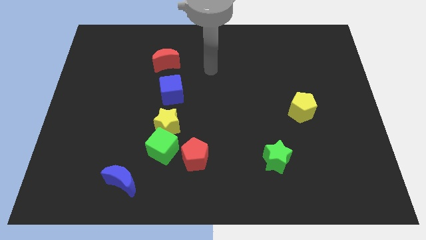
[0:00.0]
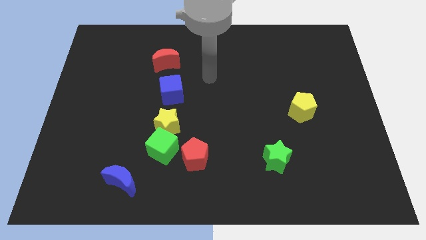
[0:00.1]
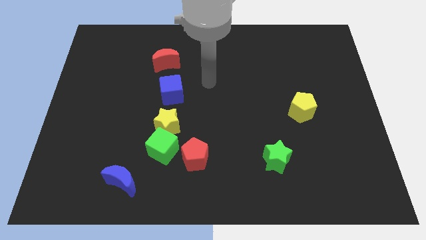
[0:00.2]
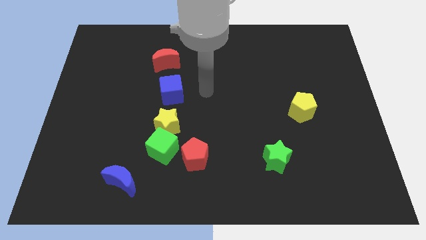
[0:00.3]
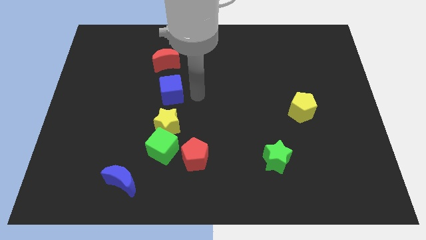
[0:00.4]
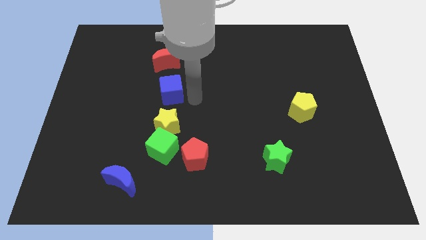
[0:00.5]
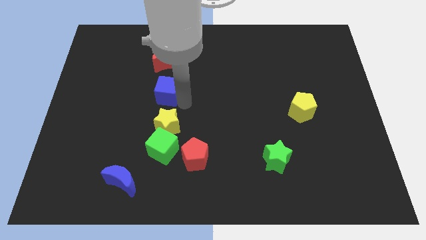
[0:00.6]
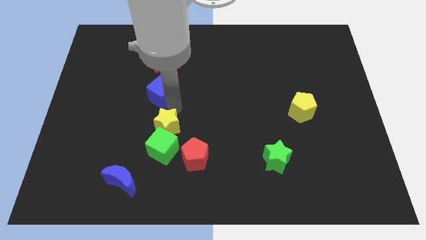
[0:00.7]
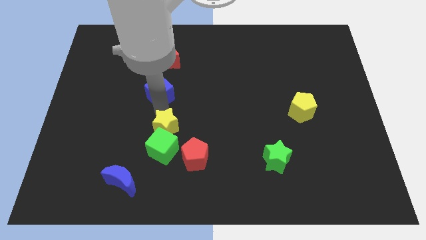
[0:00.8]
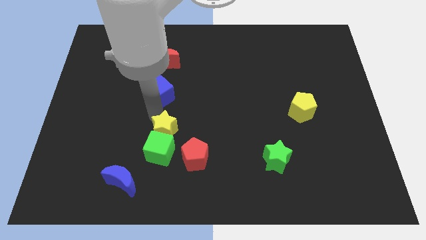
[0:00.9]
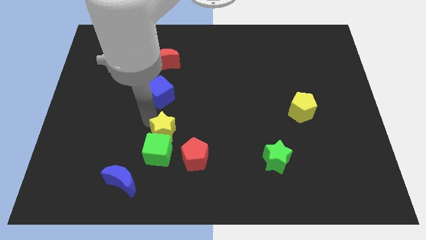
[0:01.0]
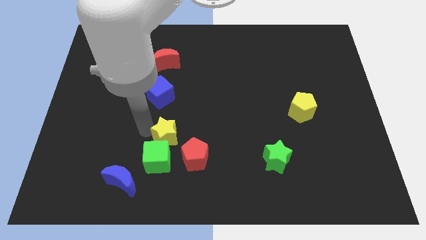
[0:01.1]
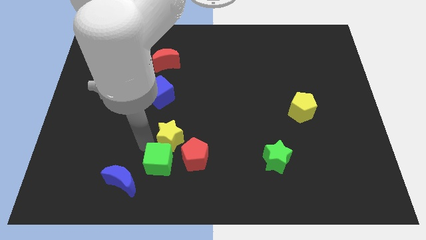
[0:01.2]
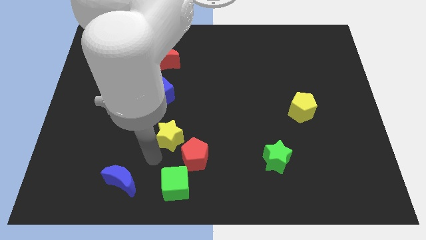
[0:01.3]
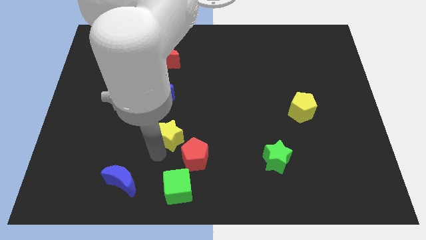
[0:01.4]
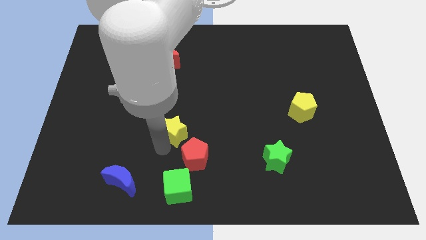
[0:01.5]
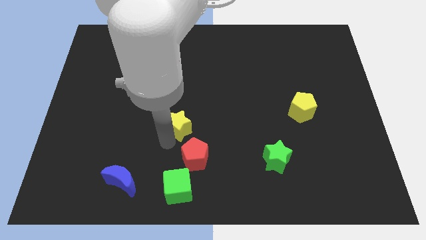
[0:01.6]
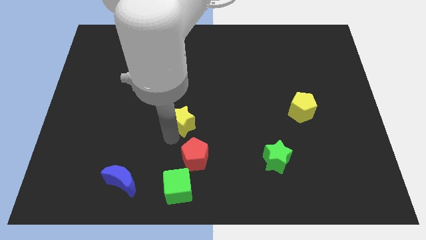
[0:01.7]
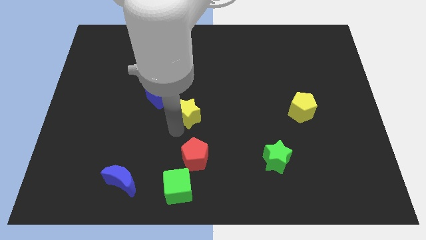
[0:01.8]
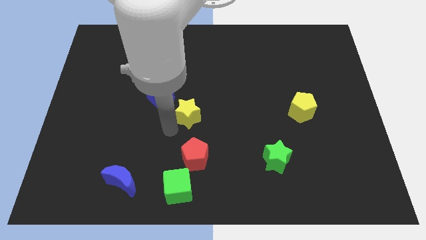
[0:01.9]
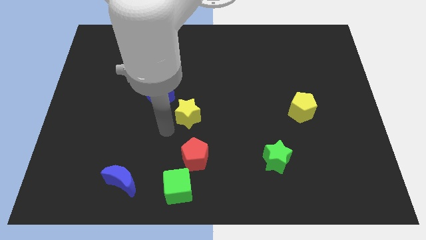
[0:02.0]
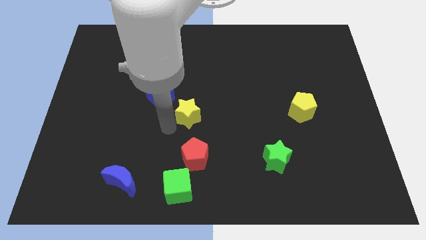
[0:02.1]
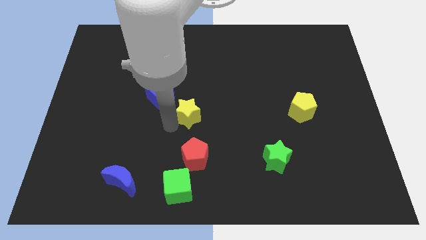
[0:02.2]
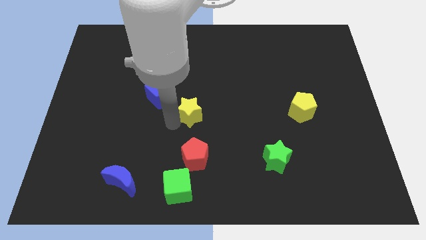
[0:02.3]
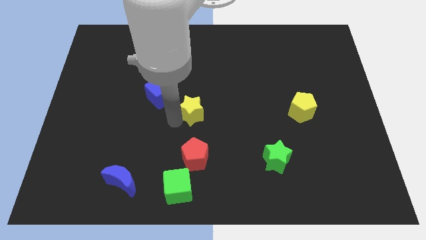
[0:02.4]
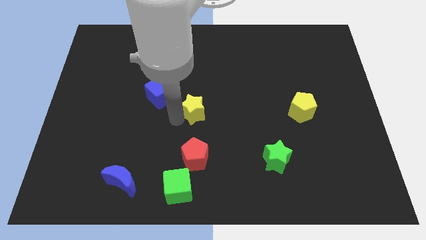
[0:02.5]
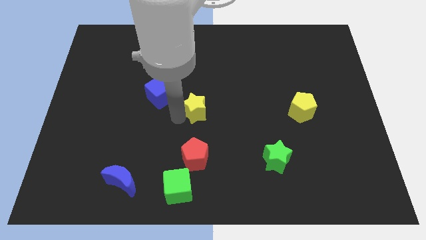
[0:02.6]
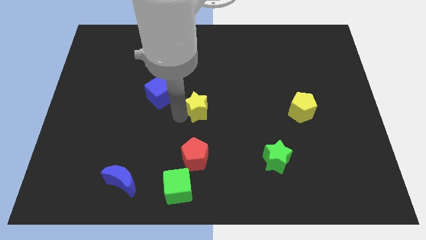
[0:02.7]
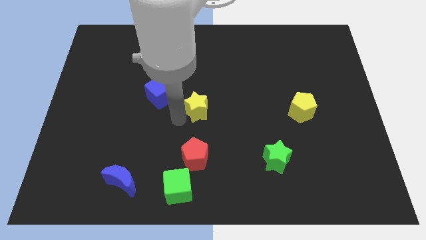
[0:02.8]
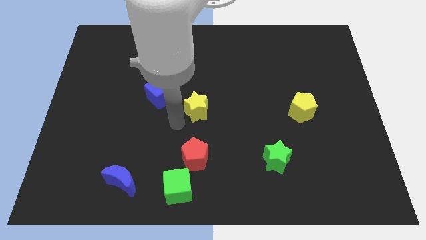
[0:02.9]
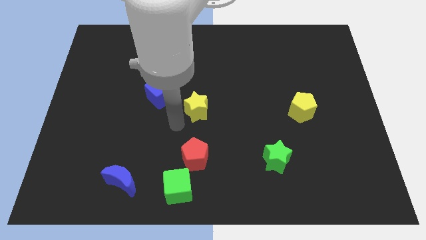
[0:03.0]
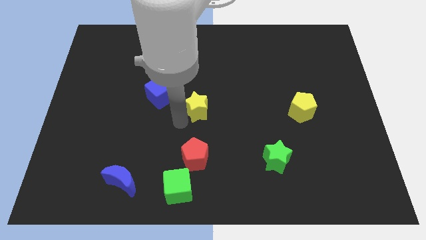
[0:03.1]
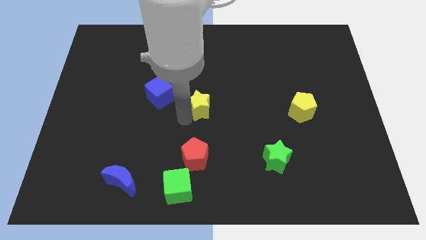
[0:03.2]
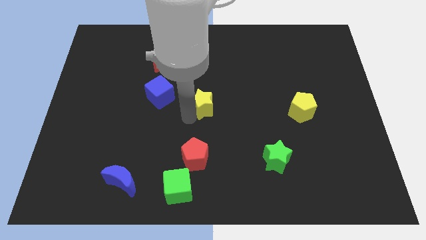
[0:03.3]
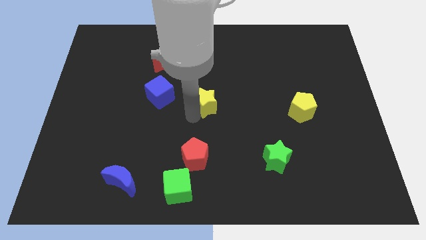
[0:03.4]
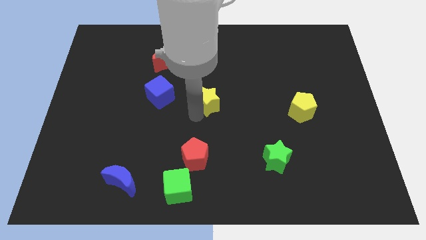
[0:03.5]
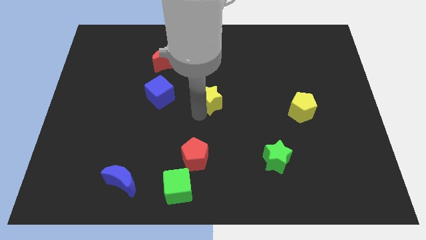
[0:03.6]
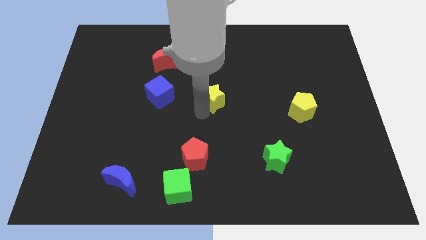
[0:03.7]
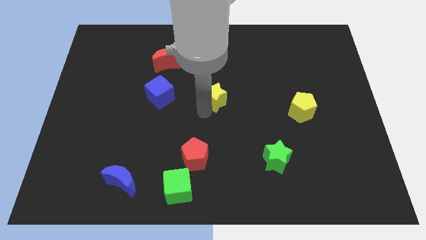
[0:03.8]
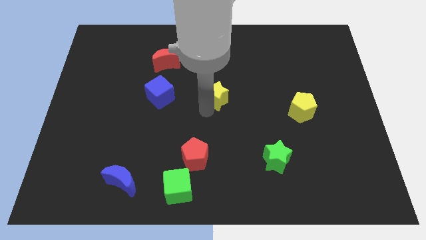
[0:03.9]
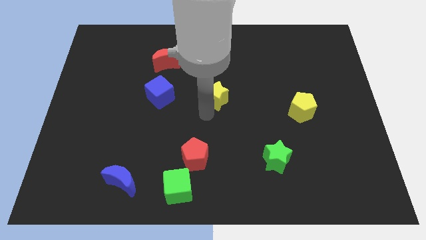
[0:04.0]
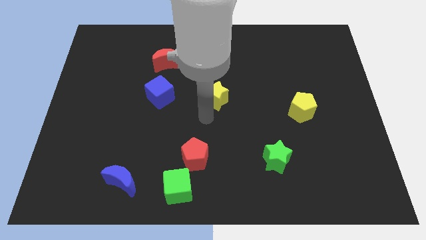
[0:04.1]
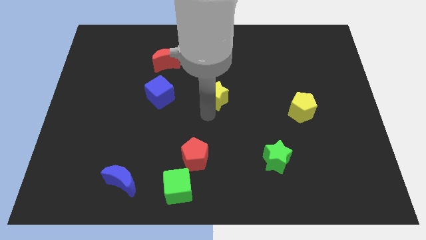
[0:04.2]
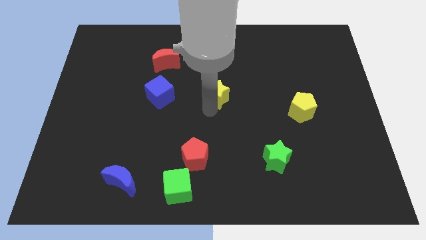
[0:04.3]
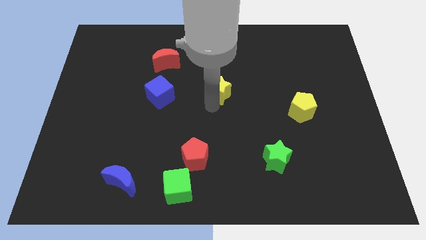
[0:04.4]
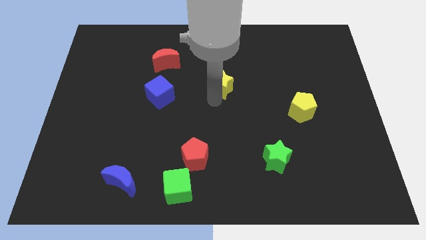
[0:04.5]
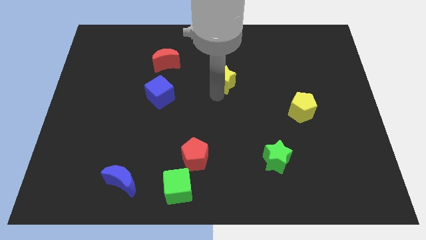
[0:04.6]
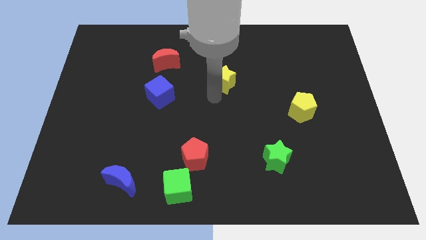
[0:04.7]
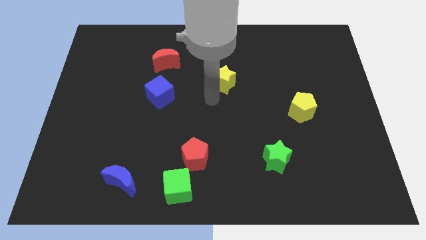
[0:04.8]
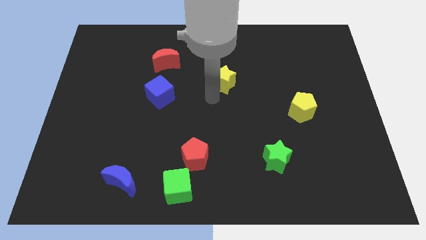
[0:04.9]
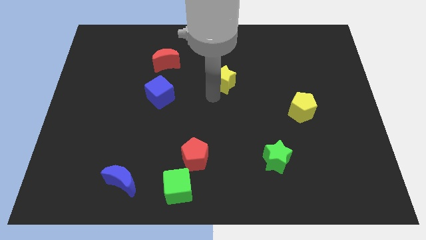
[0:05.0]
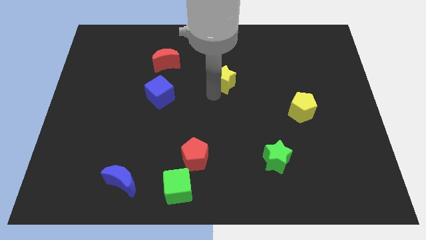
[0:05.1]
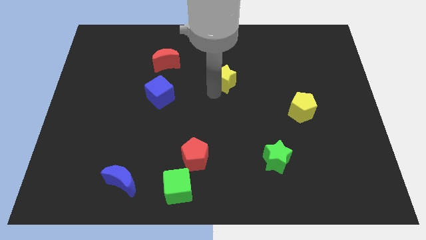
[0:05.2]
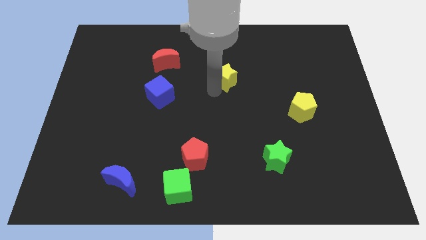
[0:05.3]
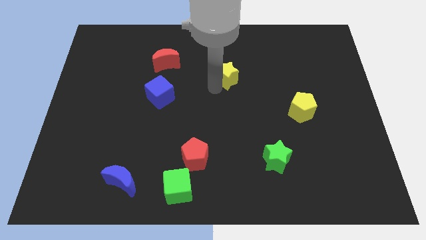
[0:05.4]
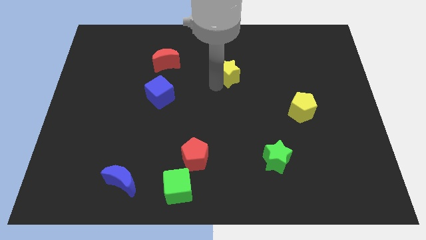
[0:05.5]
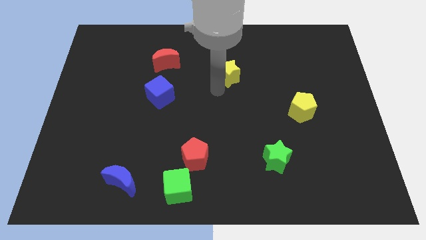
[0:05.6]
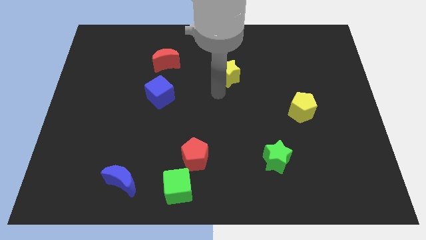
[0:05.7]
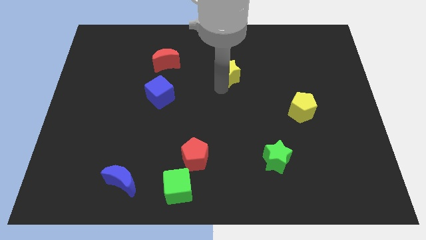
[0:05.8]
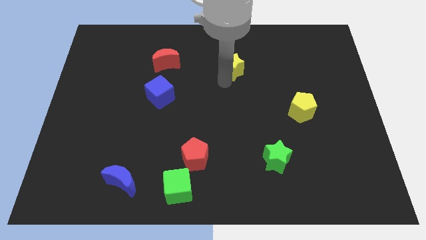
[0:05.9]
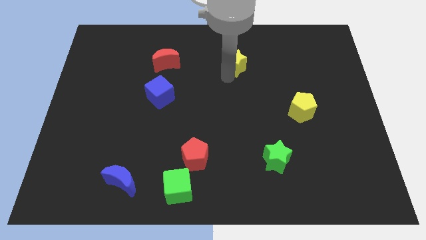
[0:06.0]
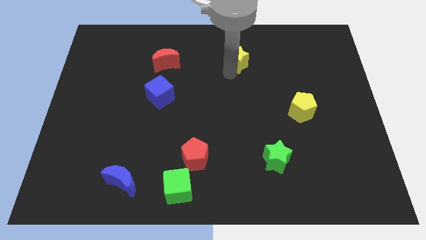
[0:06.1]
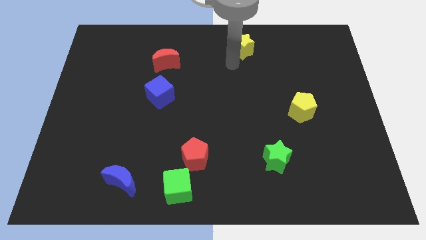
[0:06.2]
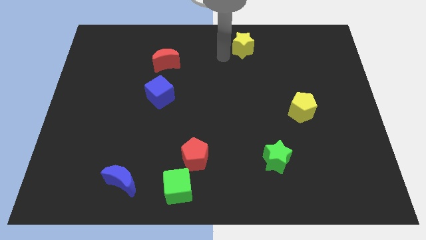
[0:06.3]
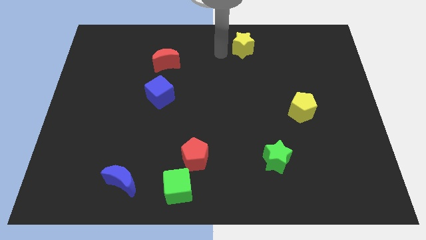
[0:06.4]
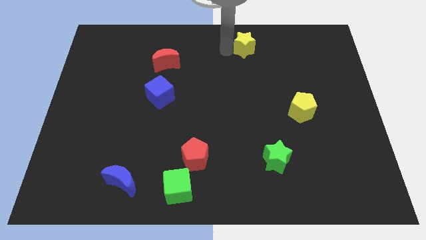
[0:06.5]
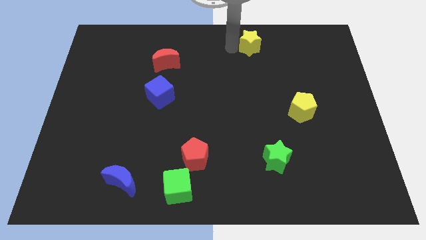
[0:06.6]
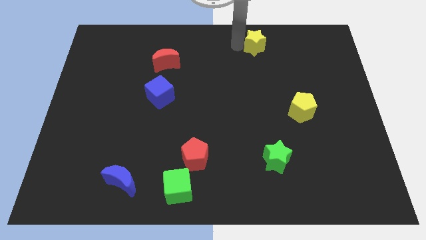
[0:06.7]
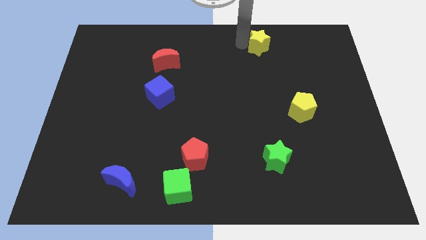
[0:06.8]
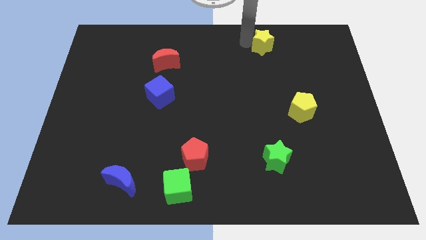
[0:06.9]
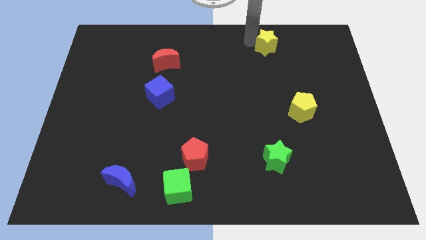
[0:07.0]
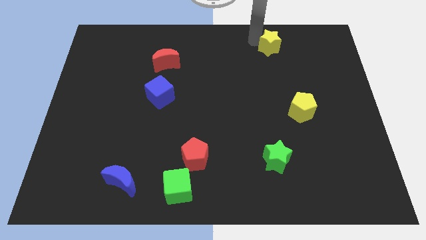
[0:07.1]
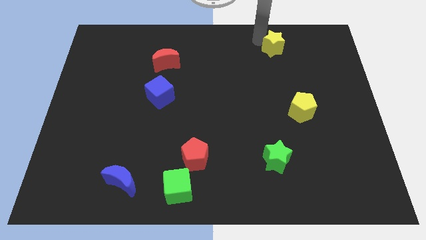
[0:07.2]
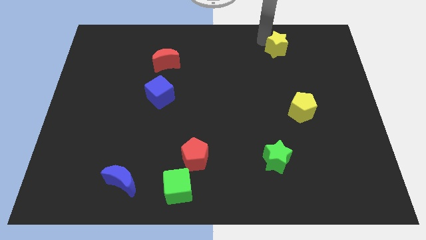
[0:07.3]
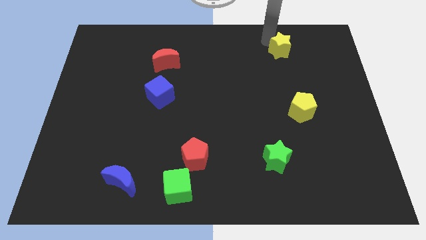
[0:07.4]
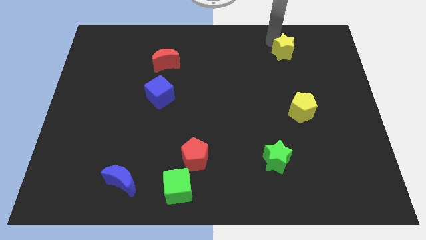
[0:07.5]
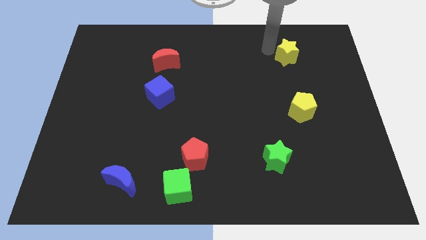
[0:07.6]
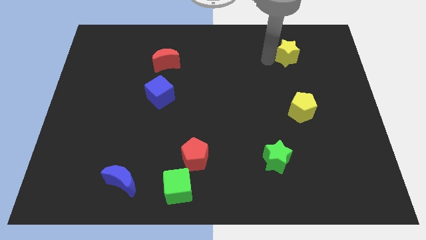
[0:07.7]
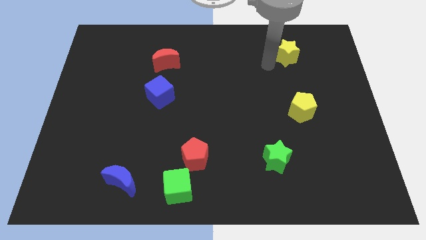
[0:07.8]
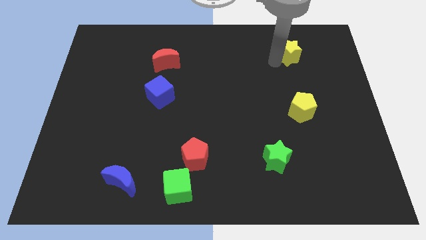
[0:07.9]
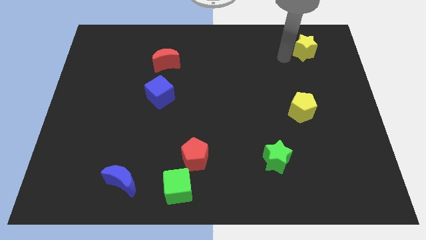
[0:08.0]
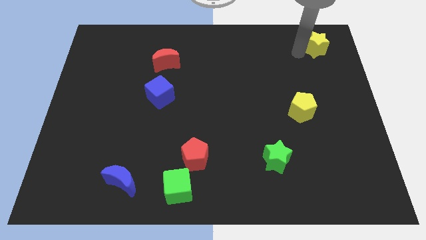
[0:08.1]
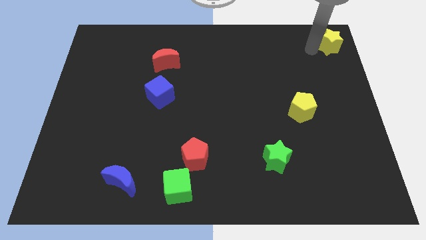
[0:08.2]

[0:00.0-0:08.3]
move the yellow star to the top right
